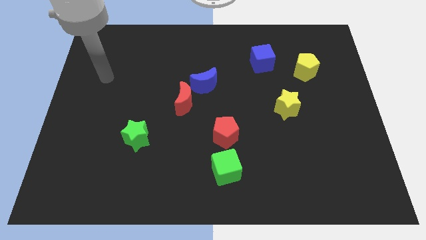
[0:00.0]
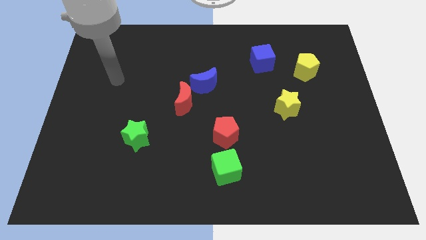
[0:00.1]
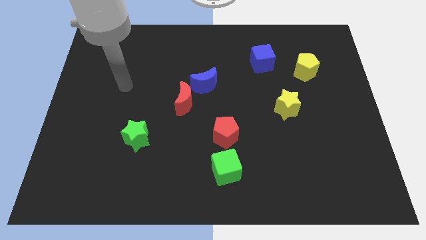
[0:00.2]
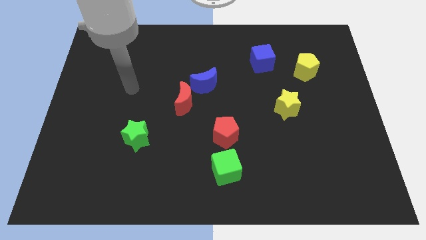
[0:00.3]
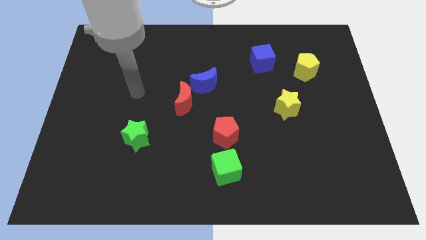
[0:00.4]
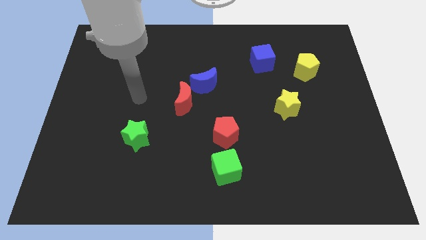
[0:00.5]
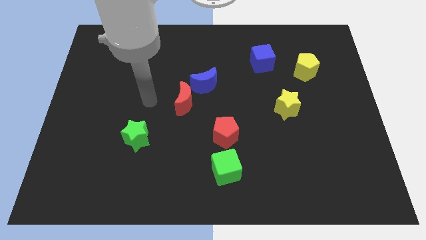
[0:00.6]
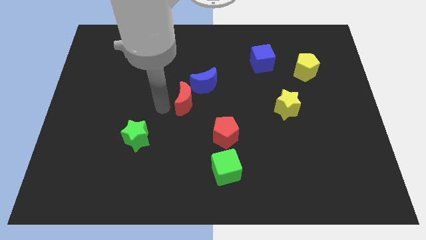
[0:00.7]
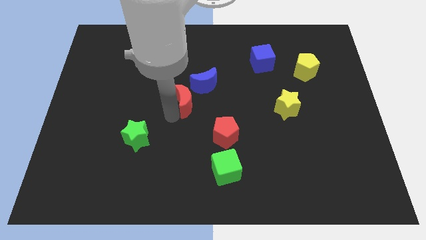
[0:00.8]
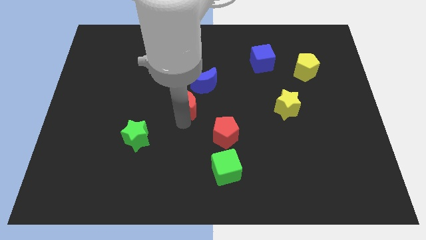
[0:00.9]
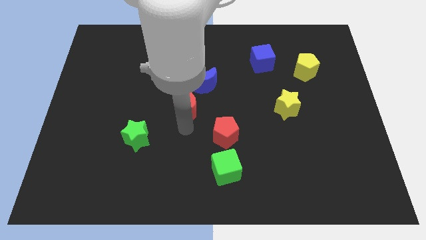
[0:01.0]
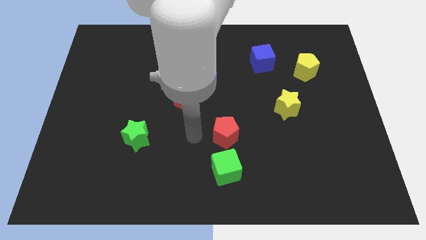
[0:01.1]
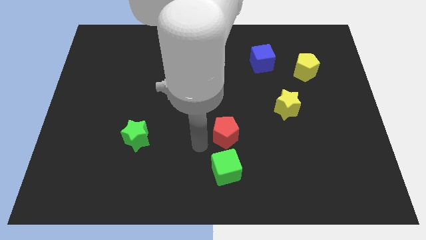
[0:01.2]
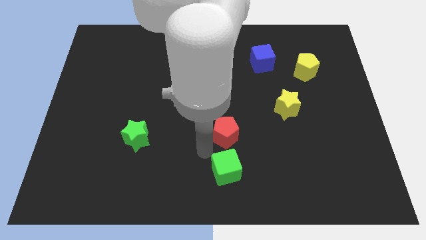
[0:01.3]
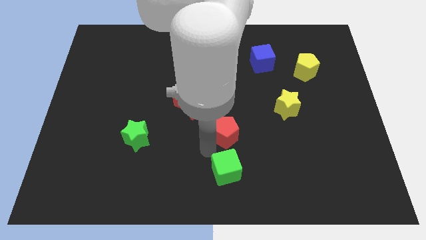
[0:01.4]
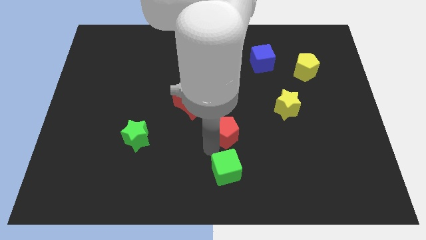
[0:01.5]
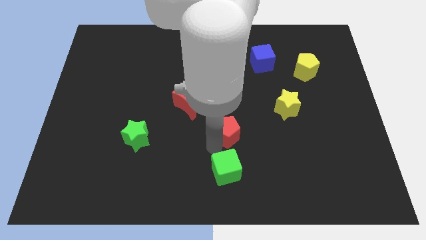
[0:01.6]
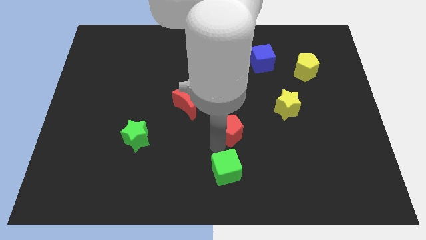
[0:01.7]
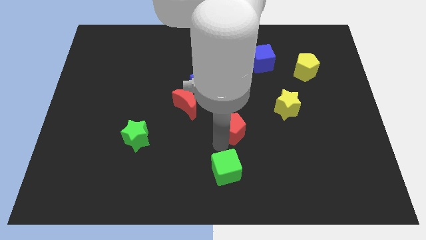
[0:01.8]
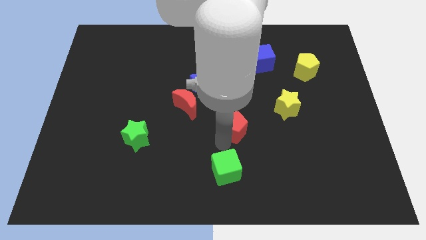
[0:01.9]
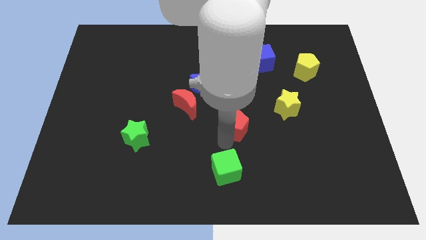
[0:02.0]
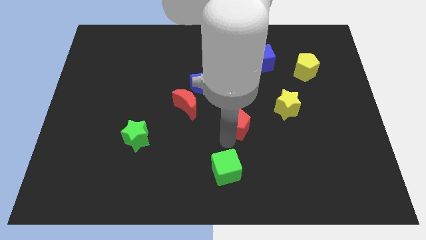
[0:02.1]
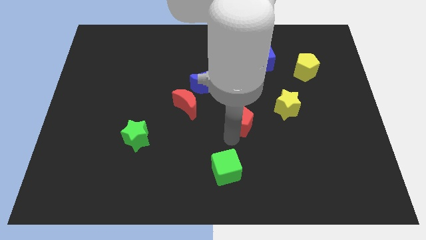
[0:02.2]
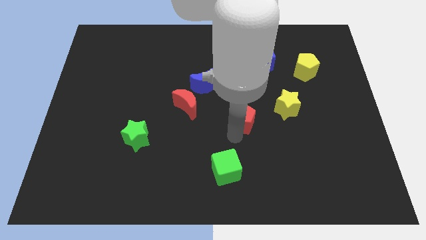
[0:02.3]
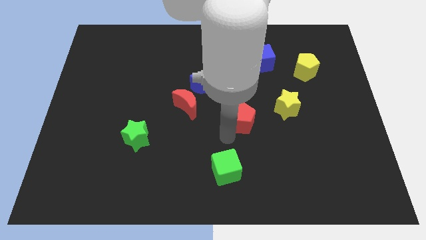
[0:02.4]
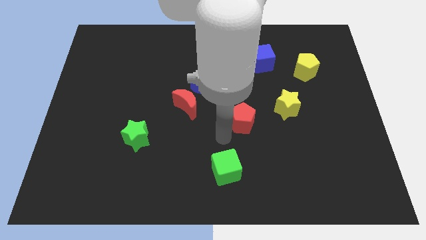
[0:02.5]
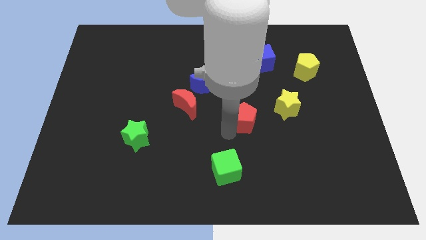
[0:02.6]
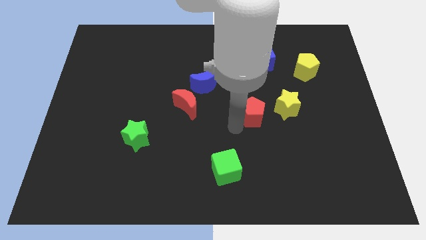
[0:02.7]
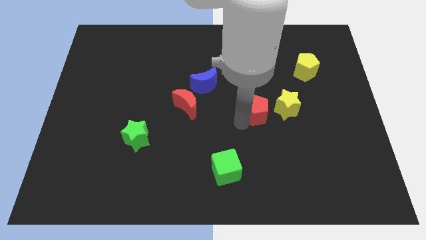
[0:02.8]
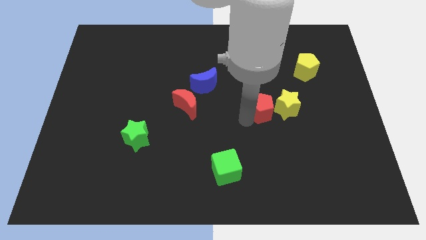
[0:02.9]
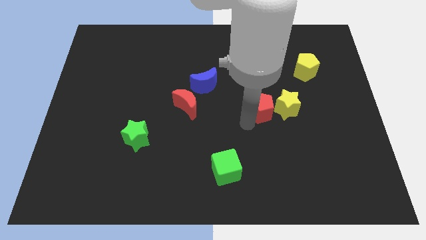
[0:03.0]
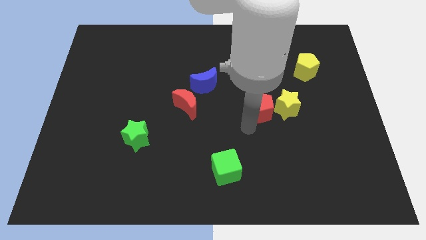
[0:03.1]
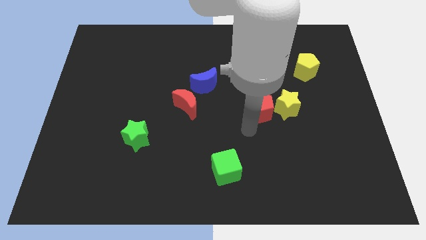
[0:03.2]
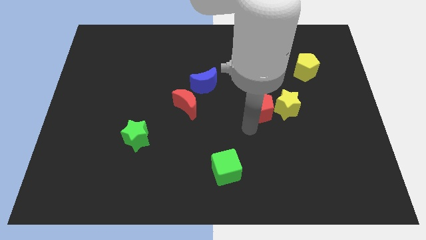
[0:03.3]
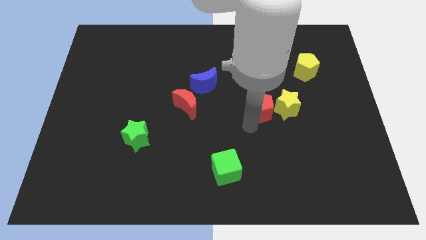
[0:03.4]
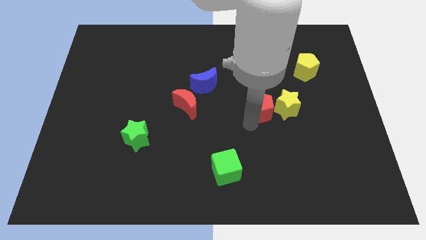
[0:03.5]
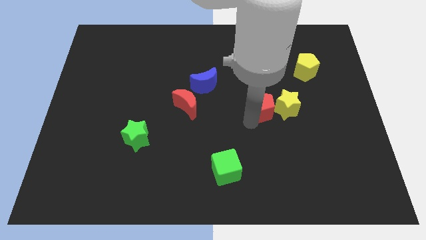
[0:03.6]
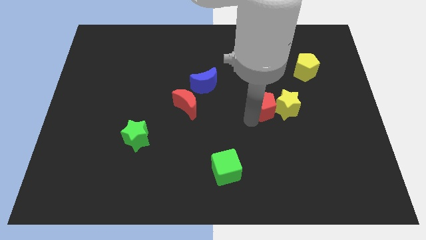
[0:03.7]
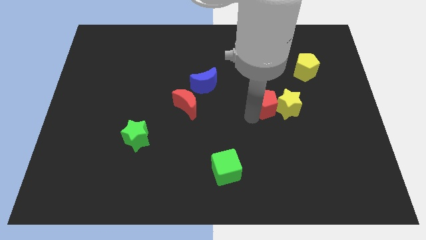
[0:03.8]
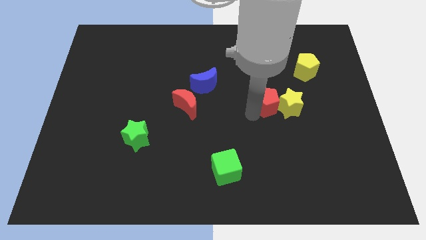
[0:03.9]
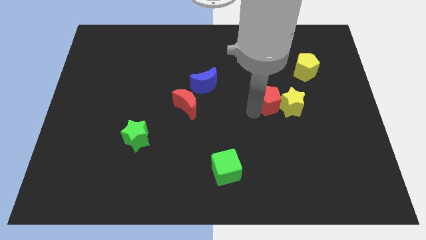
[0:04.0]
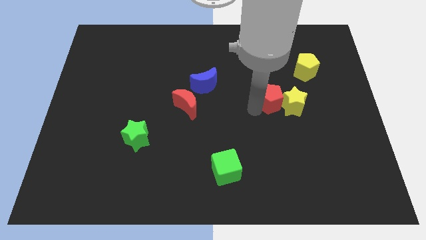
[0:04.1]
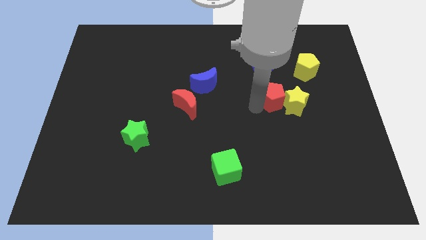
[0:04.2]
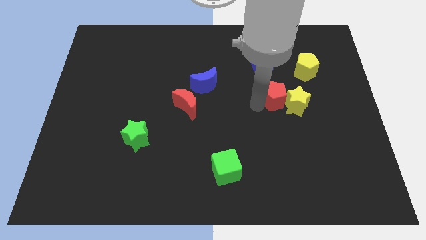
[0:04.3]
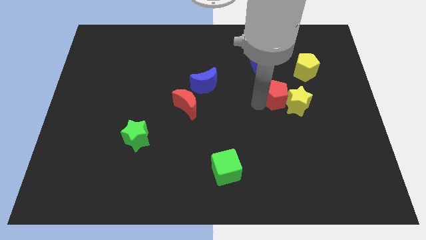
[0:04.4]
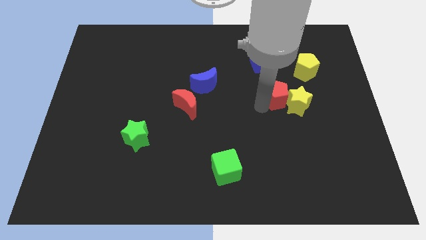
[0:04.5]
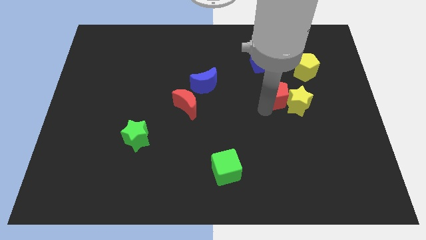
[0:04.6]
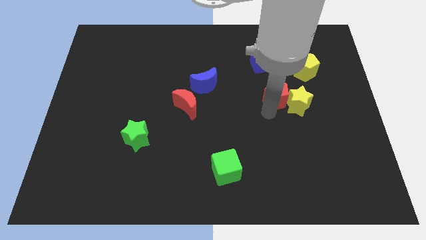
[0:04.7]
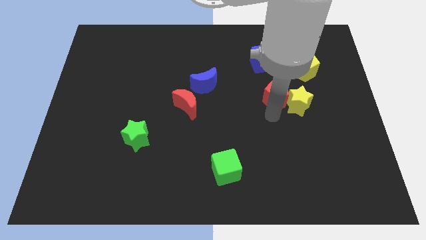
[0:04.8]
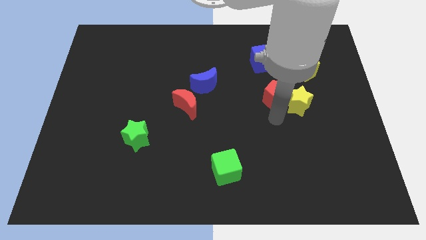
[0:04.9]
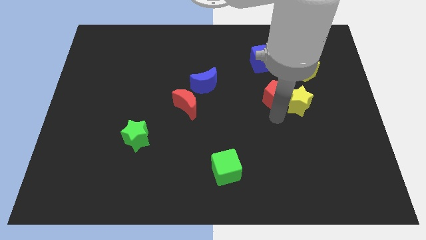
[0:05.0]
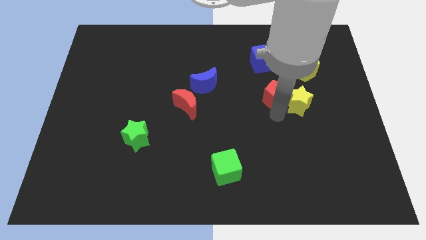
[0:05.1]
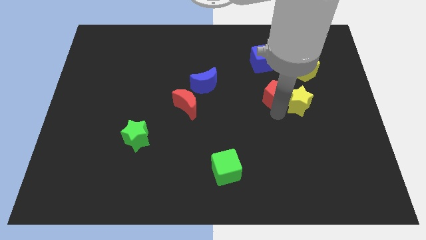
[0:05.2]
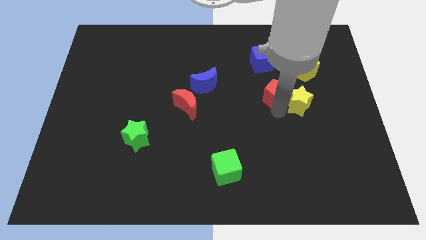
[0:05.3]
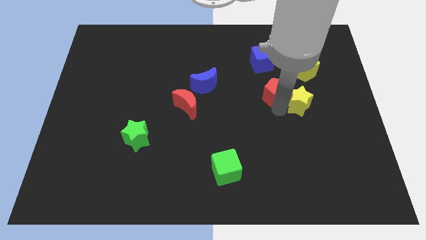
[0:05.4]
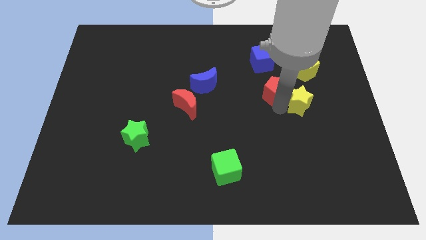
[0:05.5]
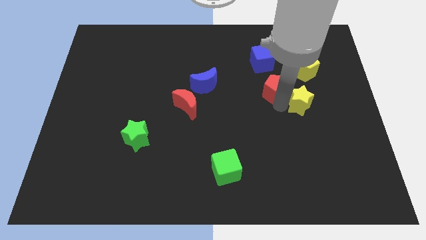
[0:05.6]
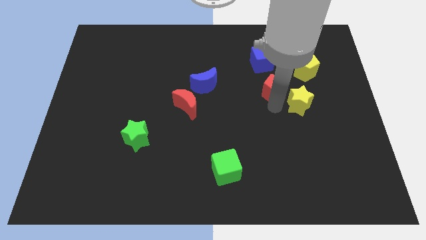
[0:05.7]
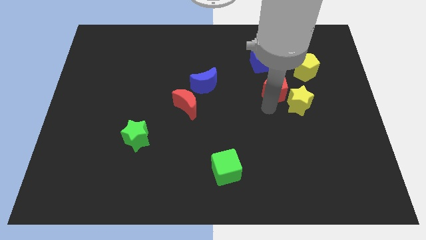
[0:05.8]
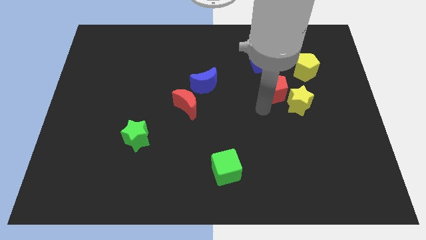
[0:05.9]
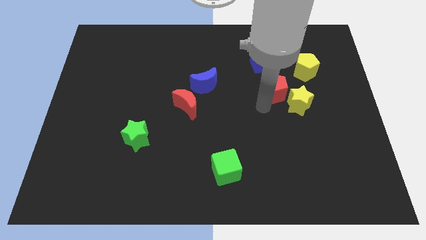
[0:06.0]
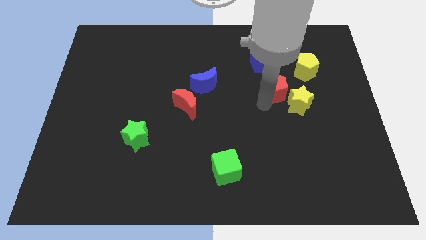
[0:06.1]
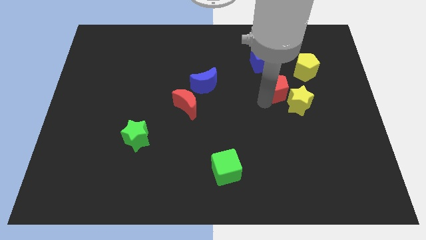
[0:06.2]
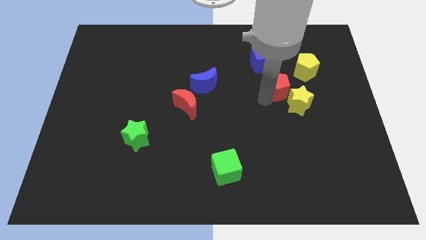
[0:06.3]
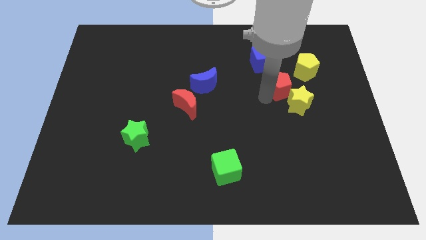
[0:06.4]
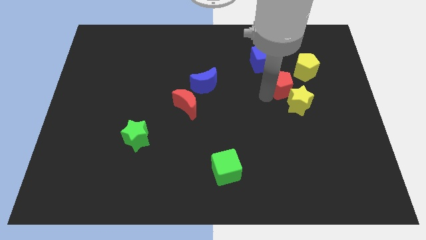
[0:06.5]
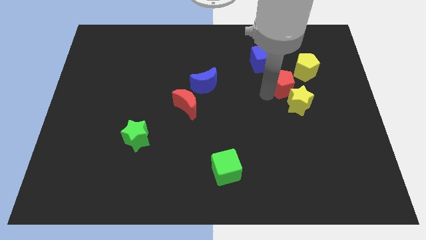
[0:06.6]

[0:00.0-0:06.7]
push the red pentagon upwards and to the right

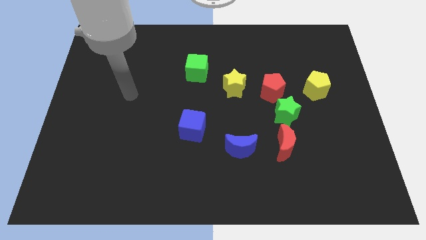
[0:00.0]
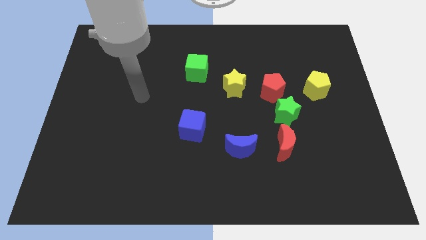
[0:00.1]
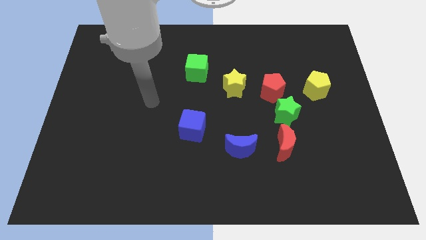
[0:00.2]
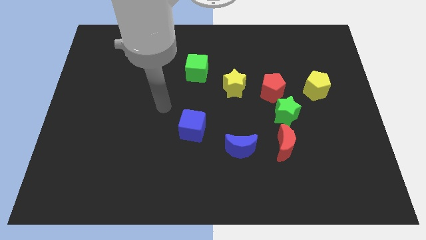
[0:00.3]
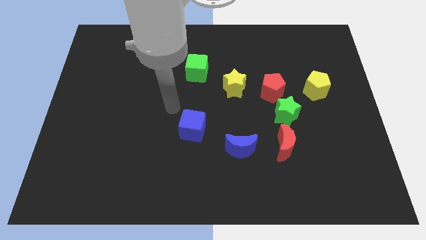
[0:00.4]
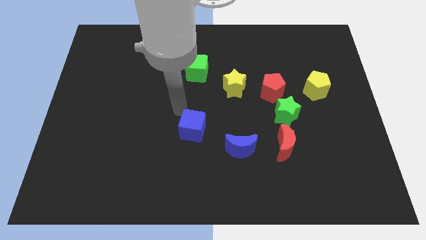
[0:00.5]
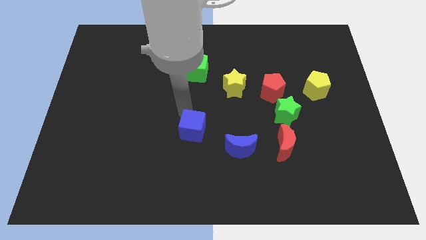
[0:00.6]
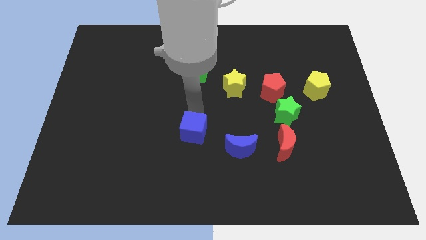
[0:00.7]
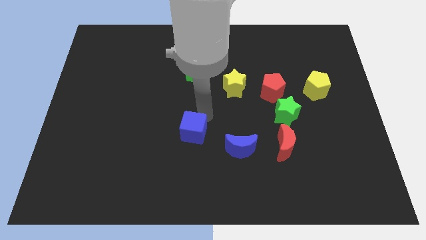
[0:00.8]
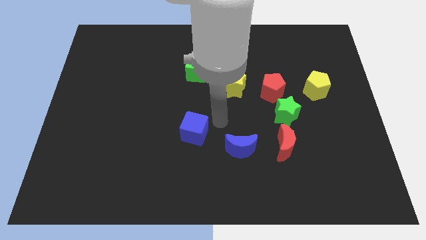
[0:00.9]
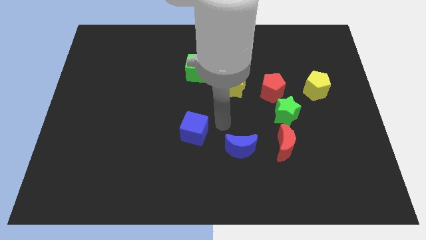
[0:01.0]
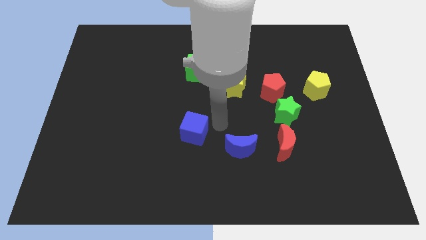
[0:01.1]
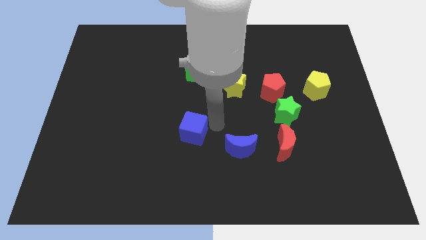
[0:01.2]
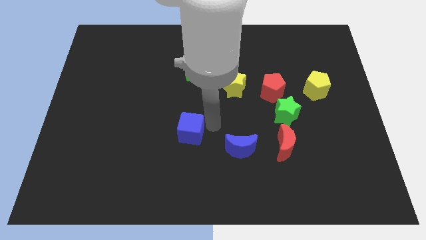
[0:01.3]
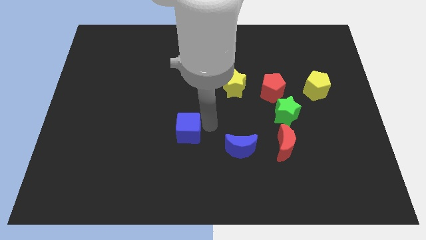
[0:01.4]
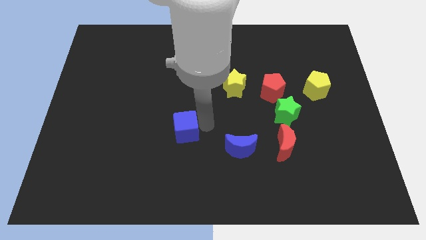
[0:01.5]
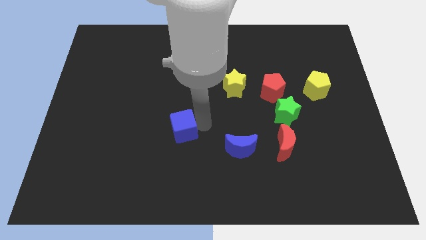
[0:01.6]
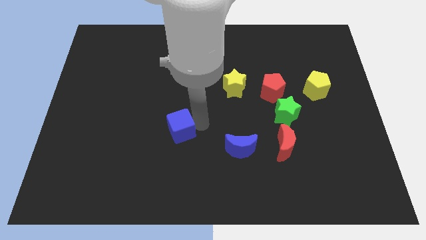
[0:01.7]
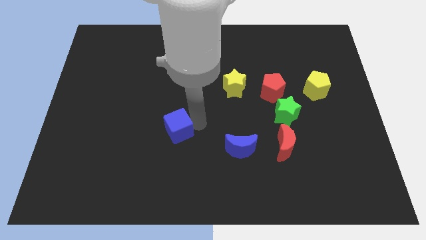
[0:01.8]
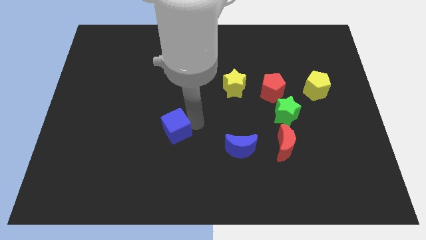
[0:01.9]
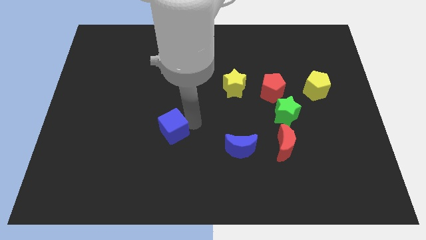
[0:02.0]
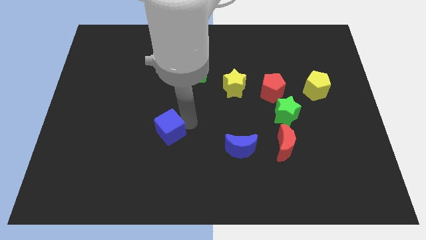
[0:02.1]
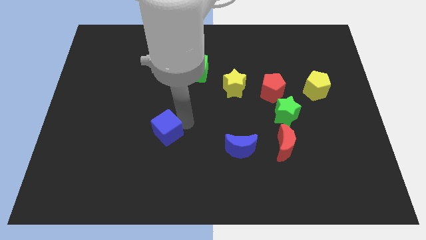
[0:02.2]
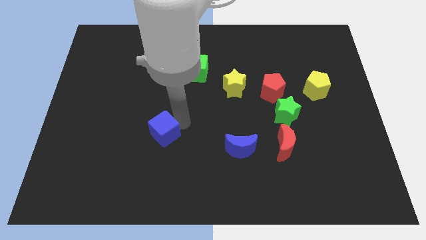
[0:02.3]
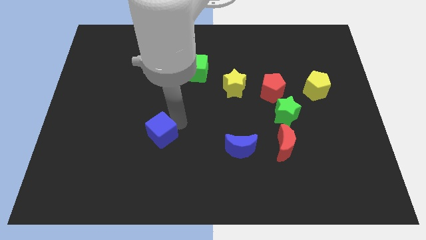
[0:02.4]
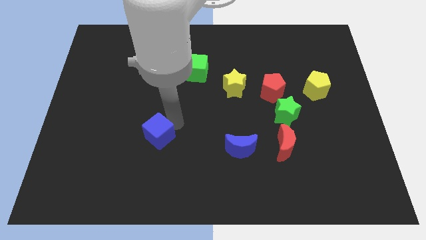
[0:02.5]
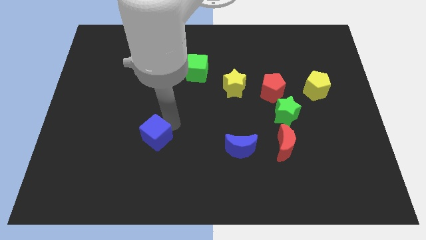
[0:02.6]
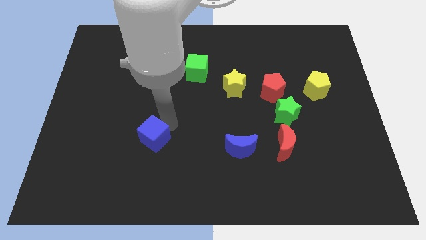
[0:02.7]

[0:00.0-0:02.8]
push the blue cube slightly diagonally downwards and left
